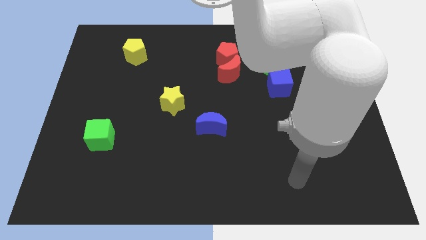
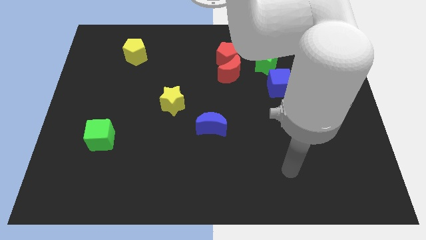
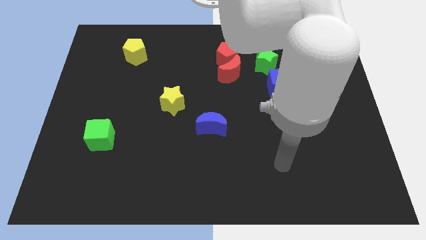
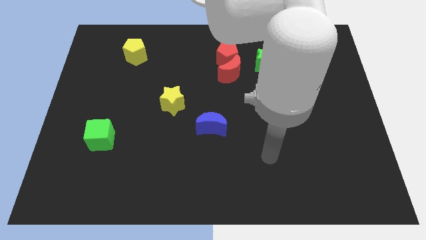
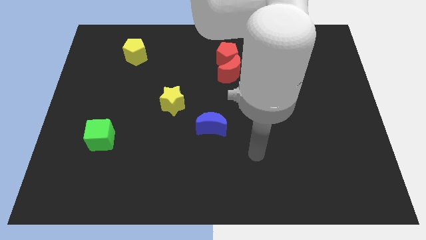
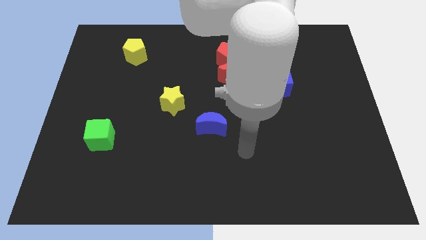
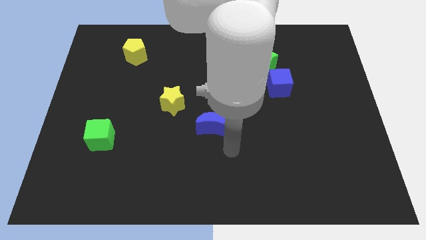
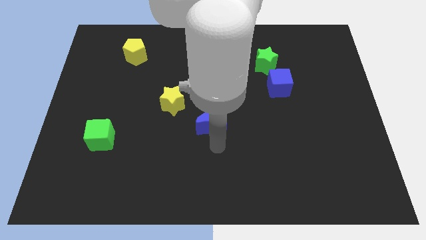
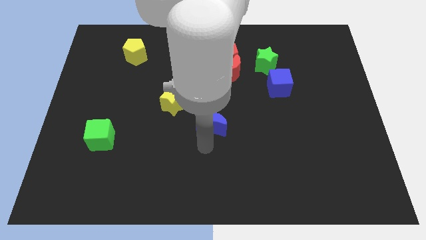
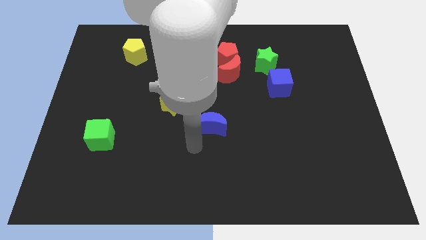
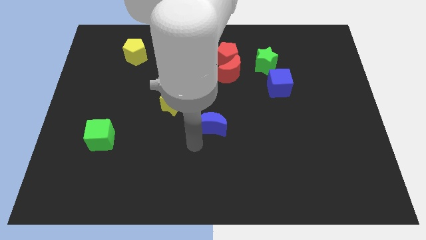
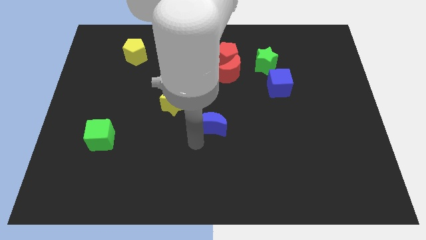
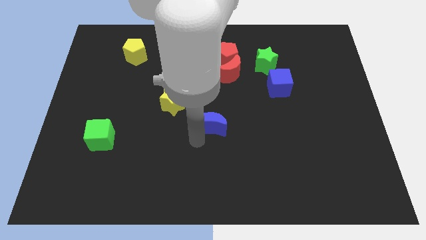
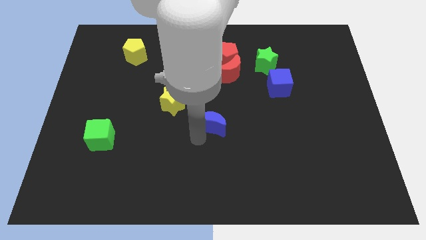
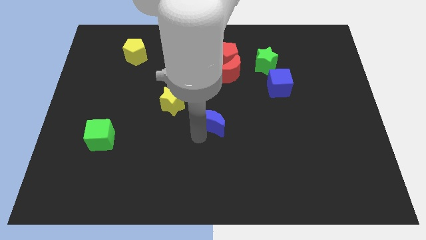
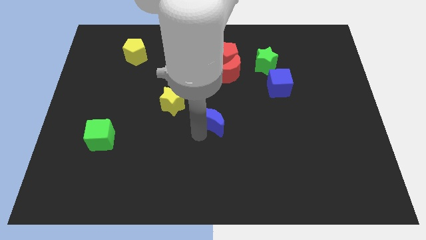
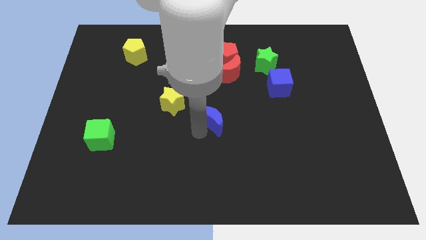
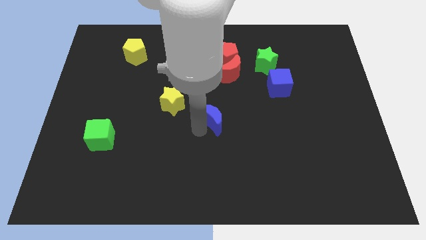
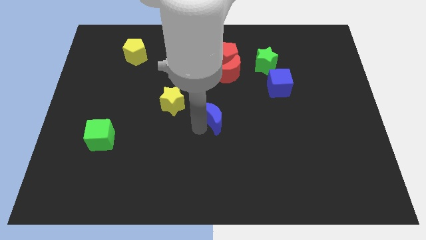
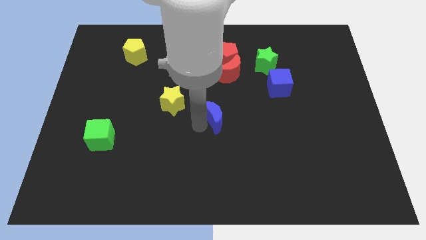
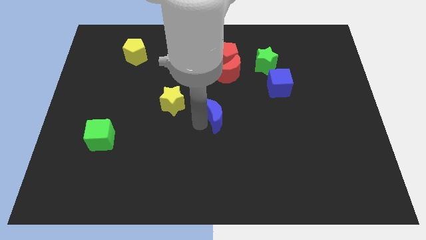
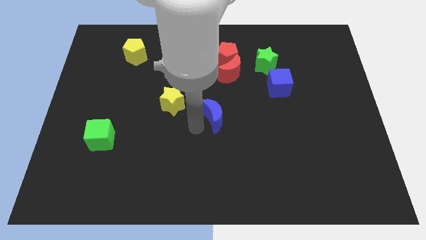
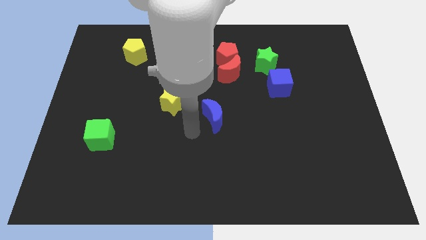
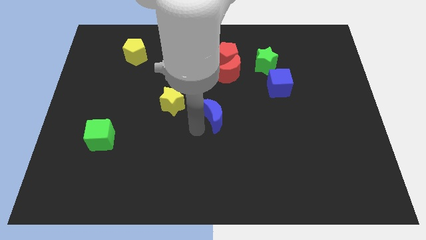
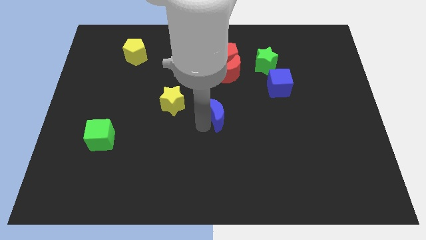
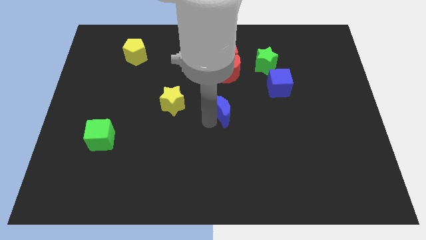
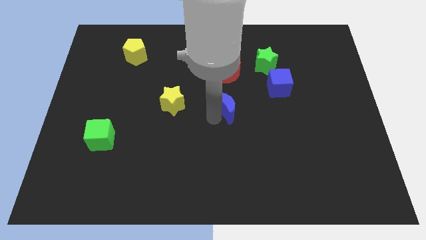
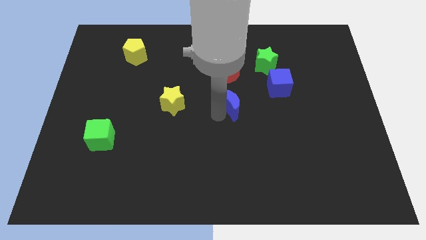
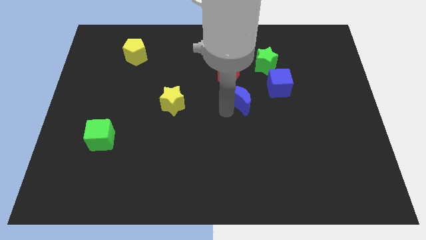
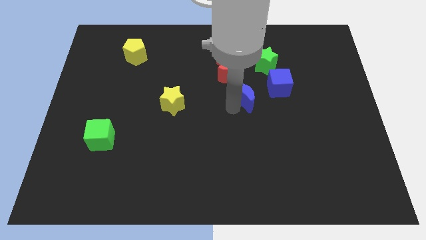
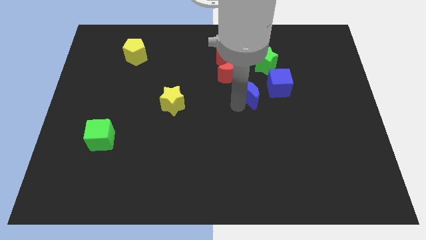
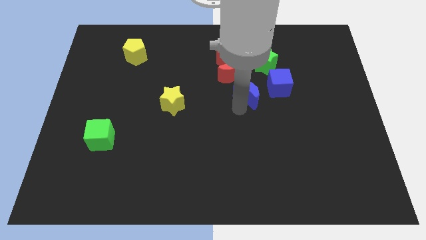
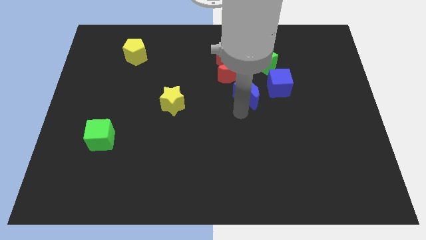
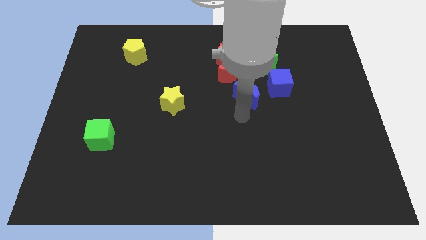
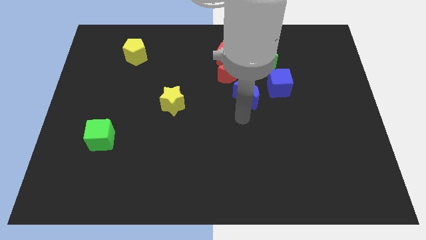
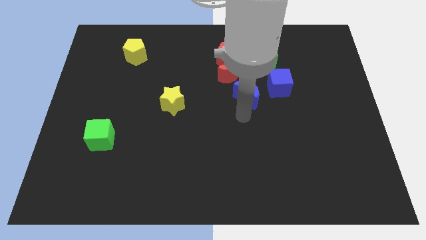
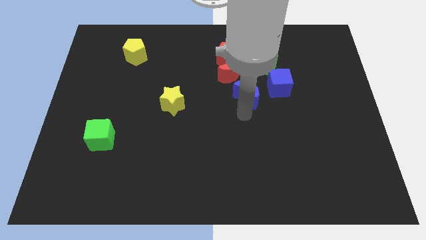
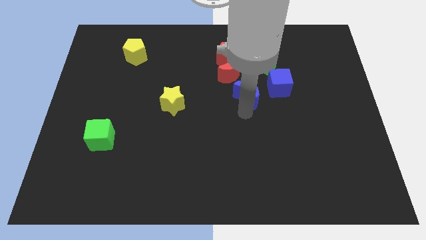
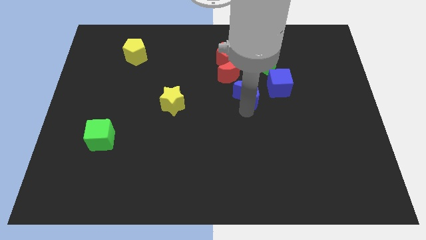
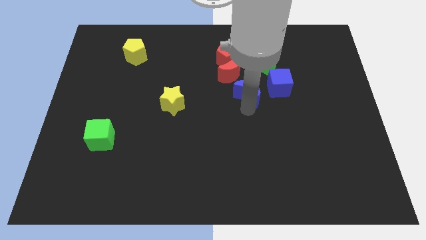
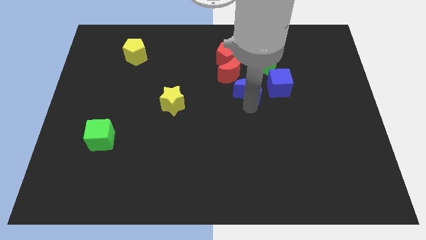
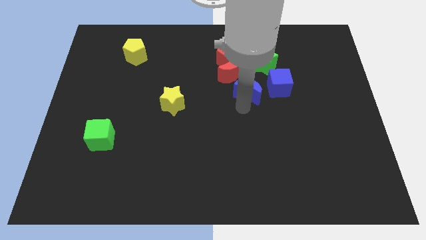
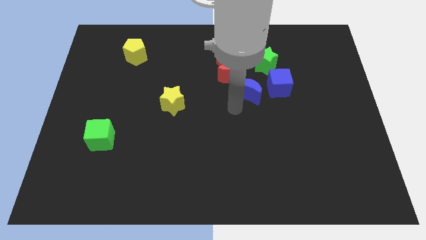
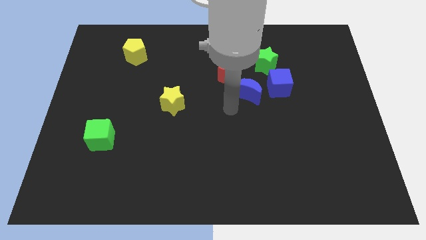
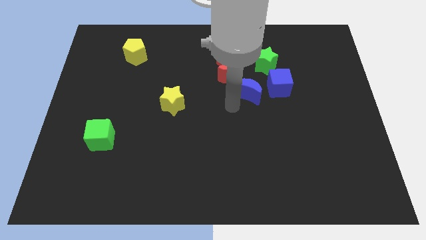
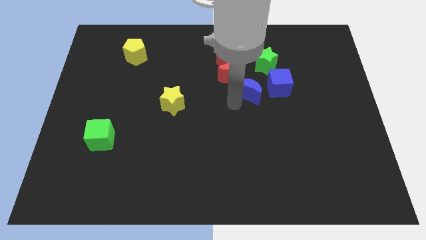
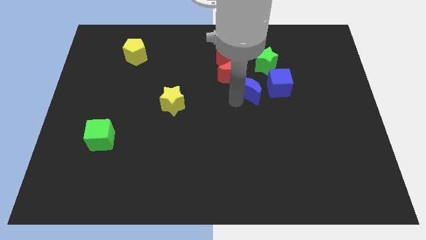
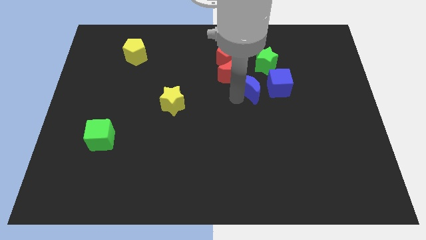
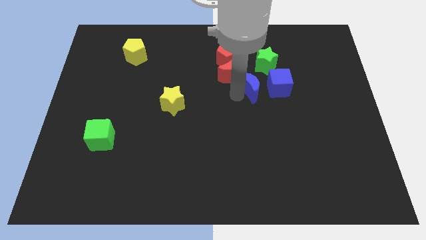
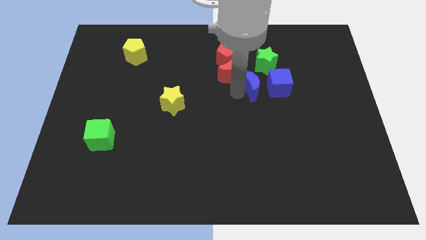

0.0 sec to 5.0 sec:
put the blue moon right of the red moon

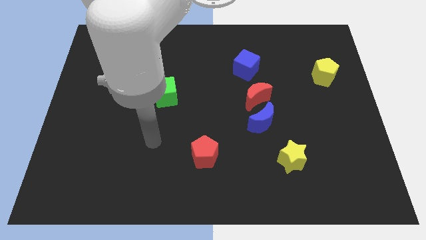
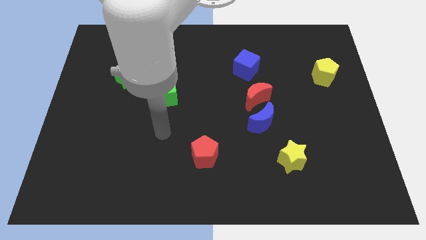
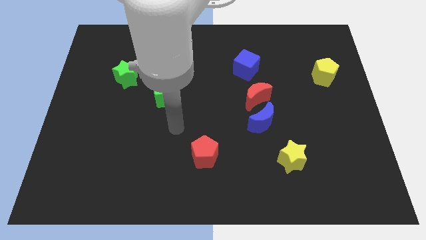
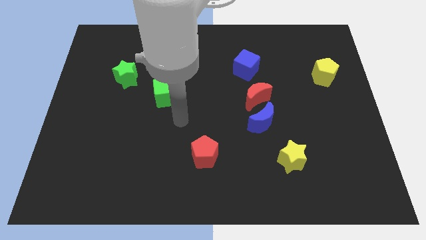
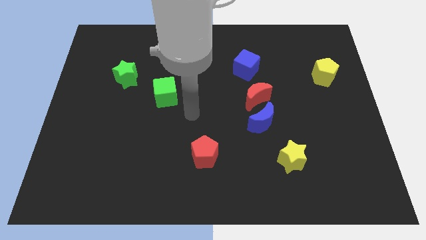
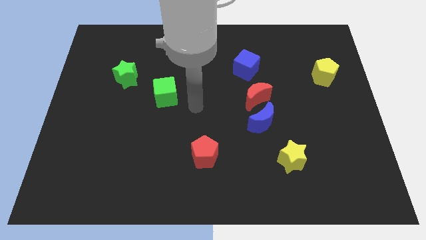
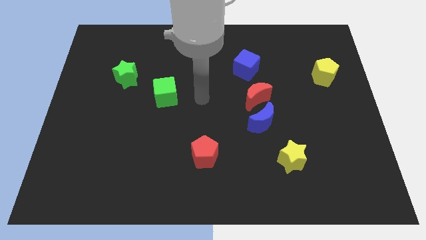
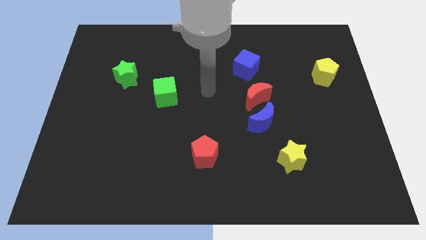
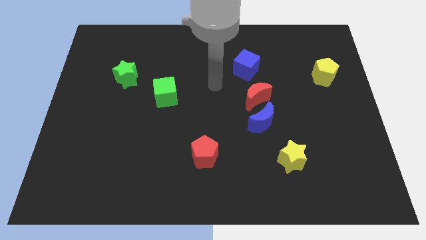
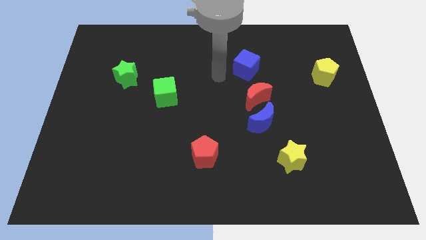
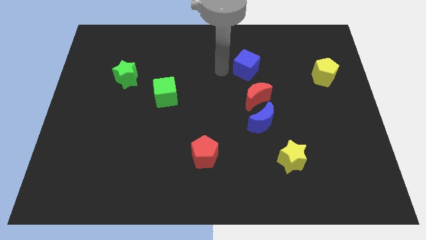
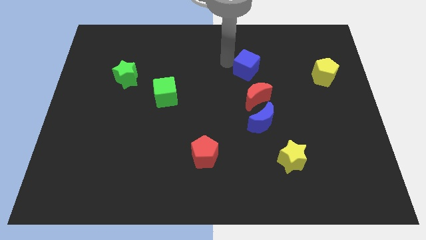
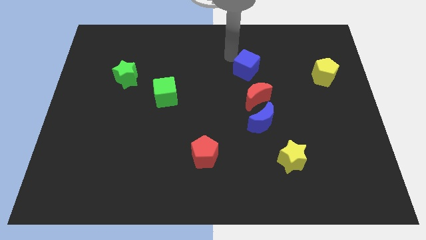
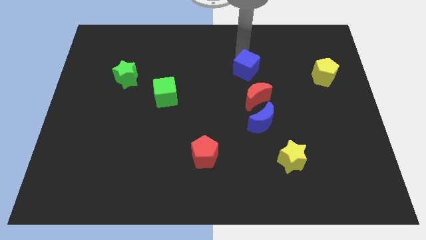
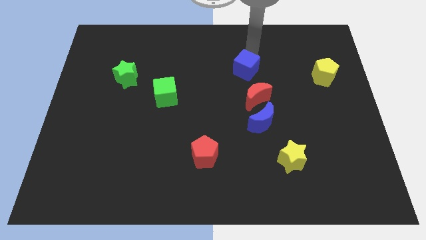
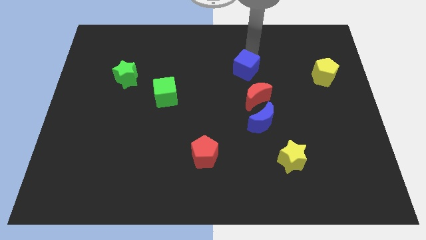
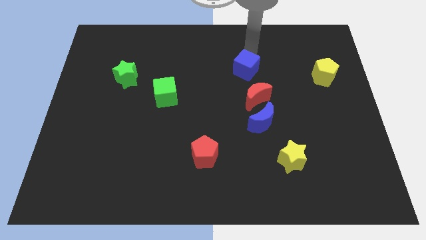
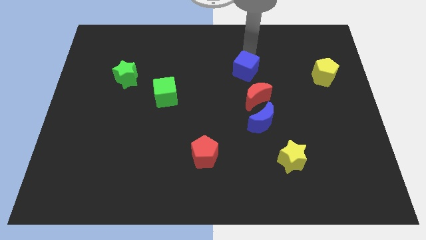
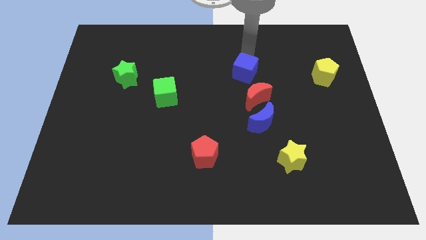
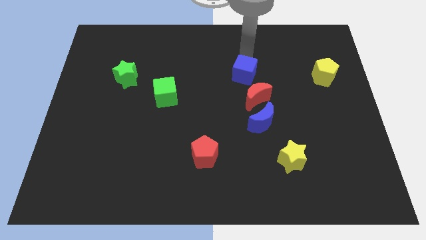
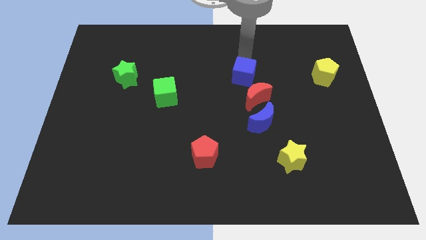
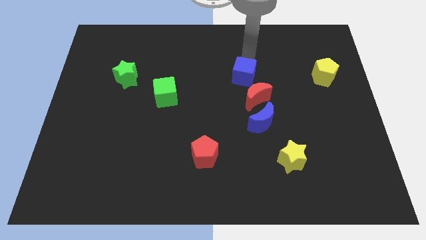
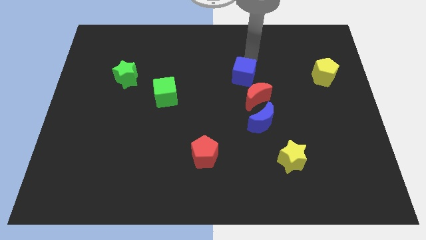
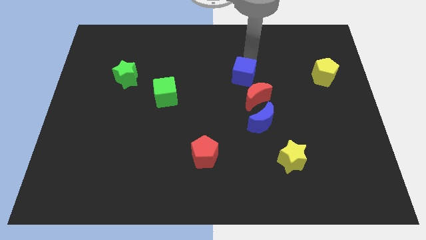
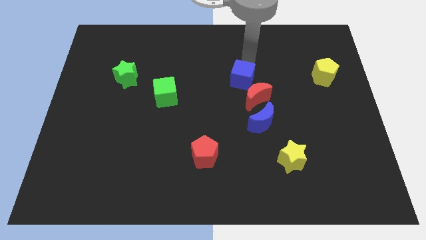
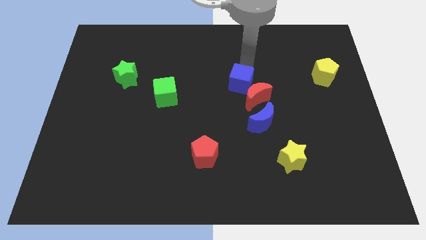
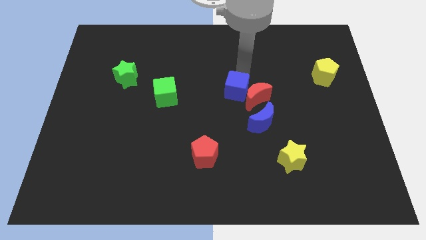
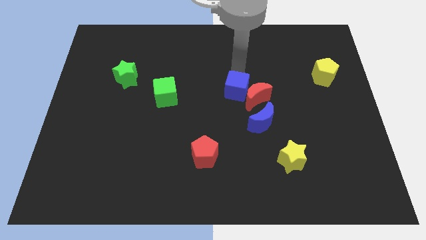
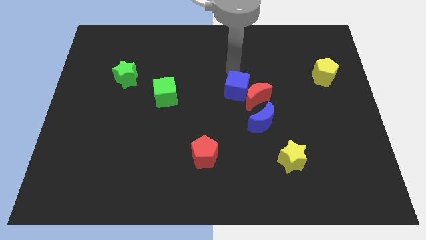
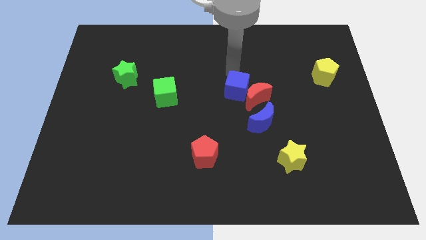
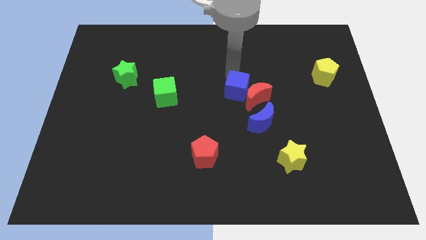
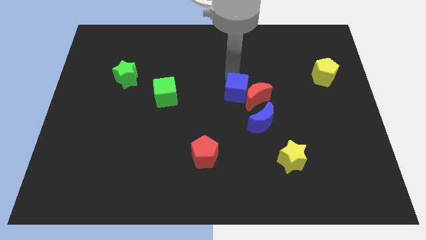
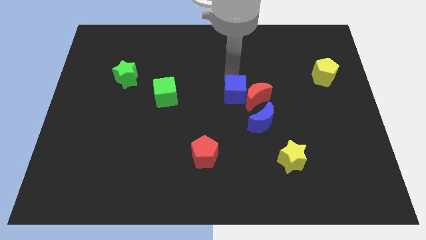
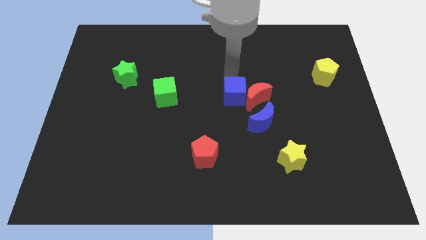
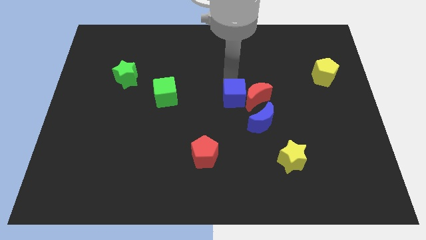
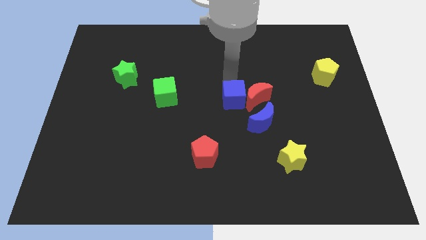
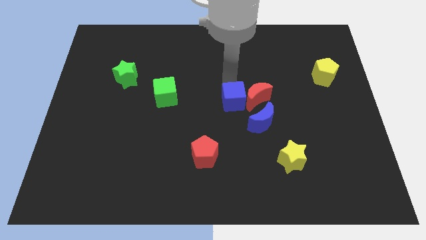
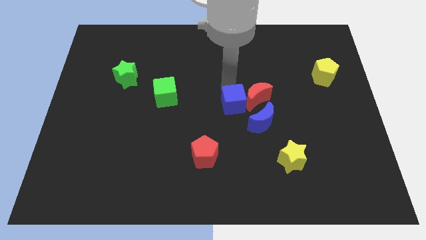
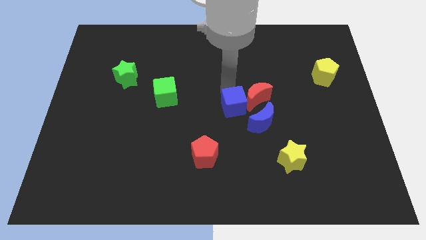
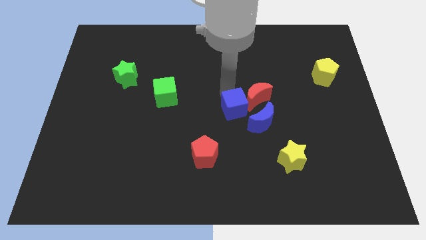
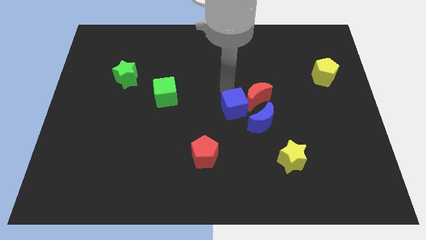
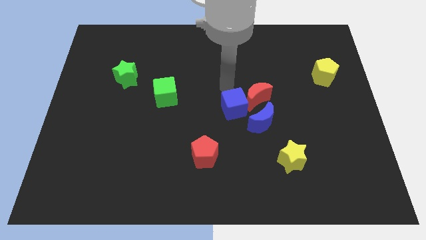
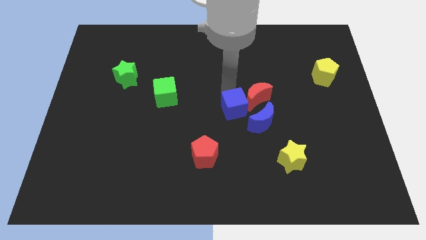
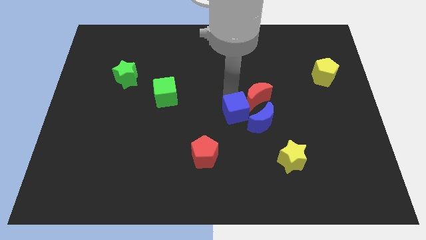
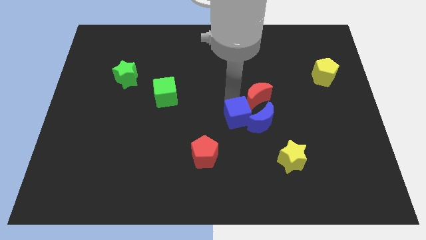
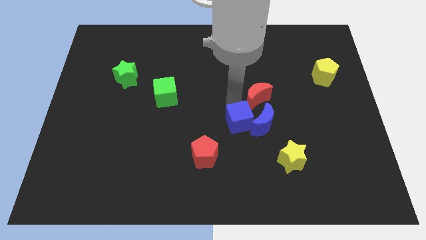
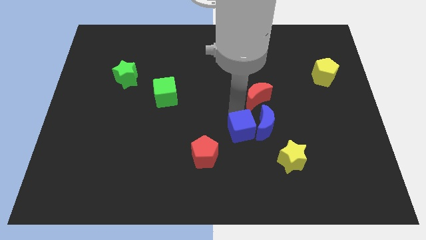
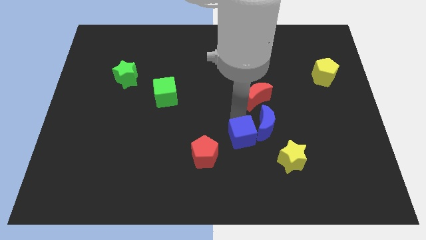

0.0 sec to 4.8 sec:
put the blue cube to the right of the red pentagon
